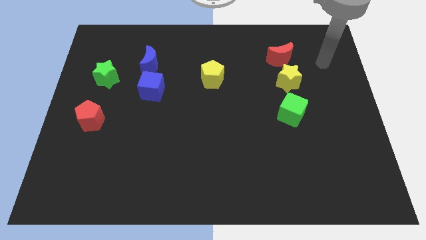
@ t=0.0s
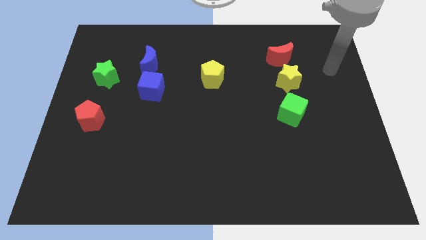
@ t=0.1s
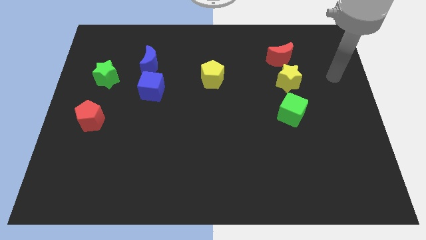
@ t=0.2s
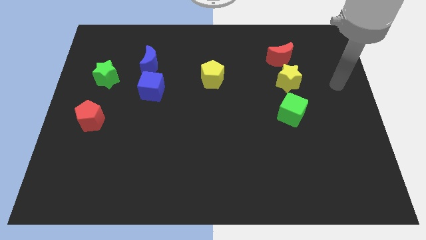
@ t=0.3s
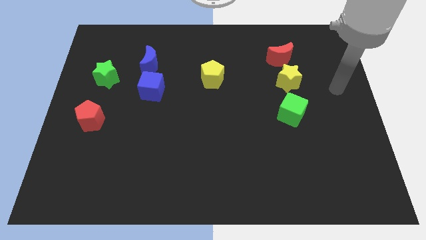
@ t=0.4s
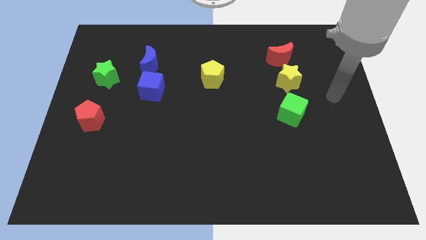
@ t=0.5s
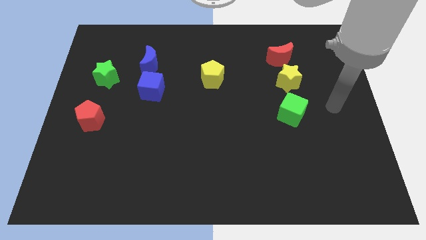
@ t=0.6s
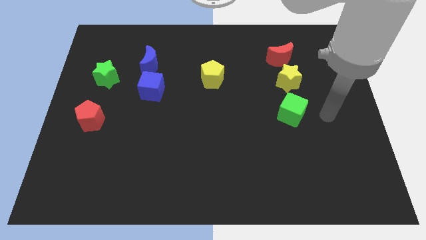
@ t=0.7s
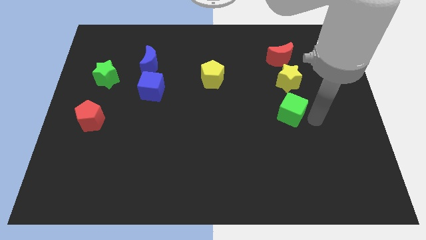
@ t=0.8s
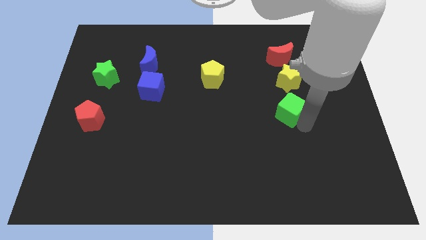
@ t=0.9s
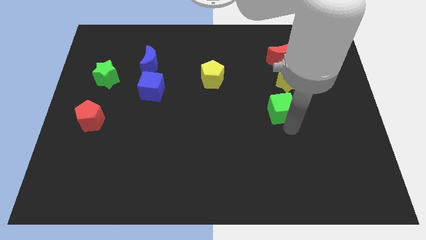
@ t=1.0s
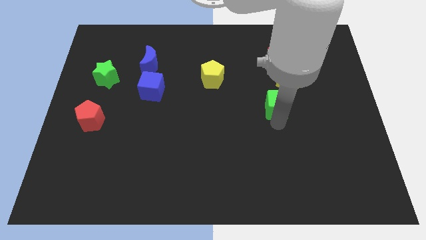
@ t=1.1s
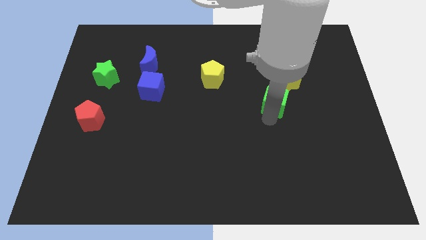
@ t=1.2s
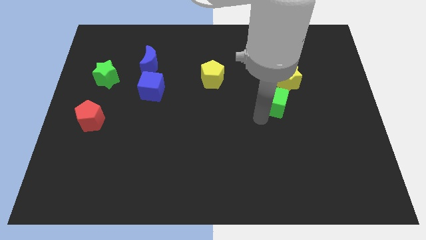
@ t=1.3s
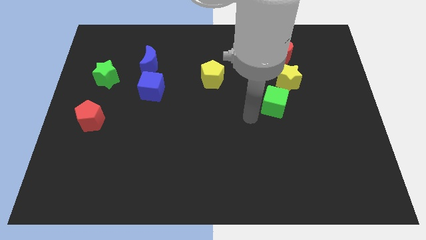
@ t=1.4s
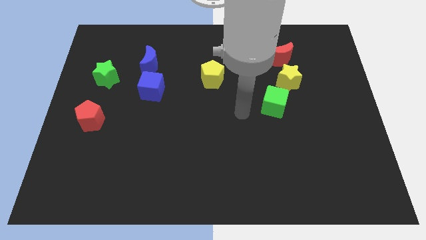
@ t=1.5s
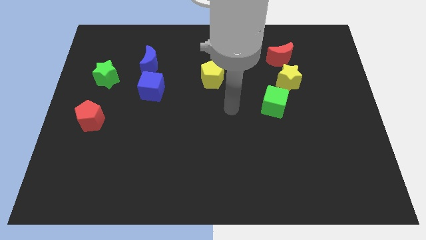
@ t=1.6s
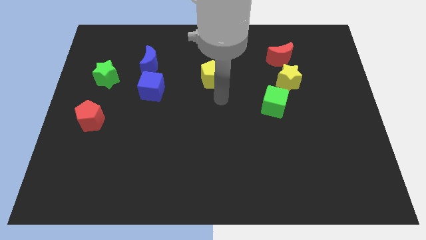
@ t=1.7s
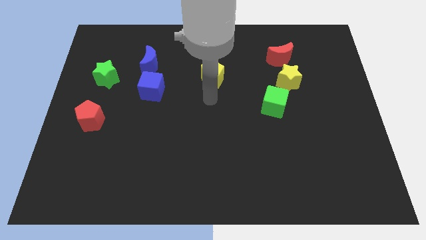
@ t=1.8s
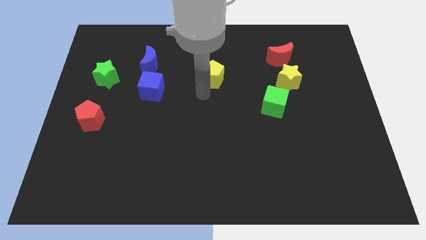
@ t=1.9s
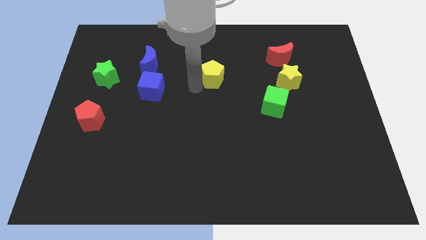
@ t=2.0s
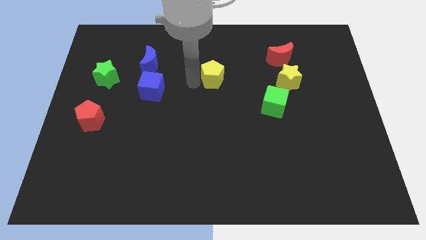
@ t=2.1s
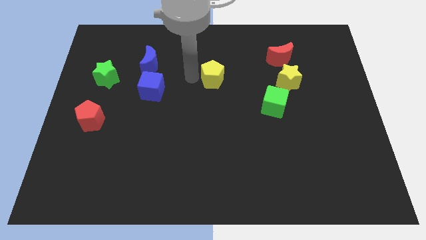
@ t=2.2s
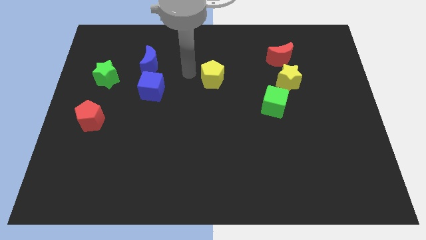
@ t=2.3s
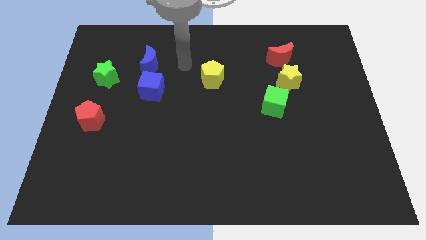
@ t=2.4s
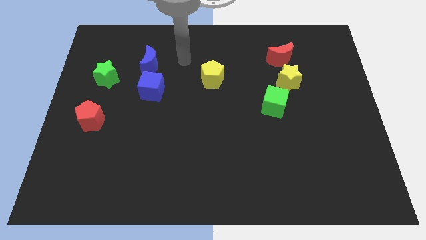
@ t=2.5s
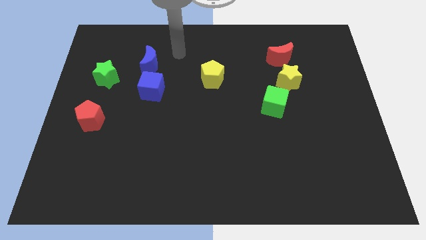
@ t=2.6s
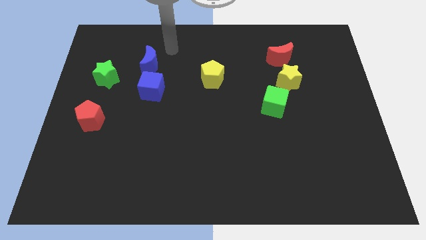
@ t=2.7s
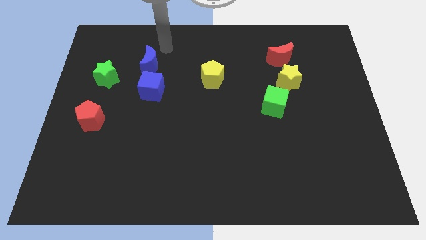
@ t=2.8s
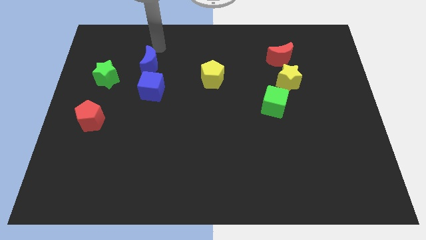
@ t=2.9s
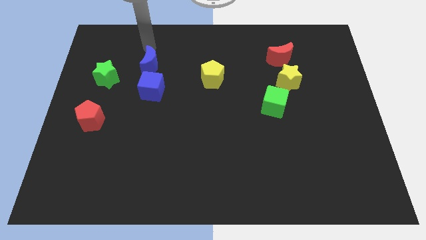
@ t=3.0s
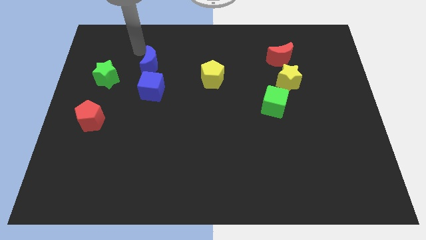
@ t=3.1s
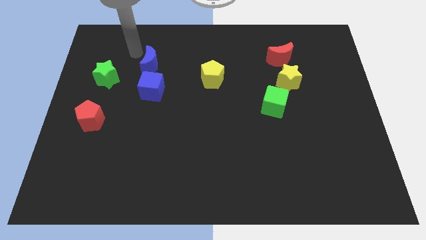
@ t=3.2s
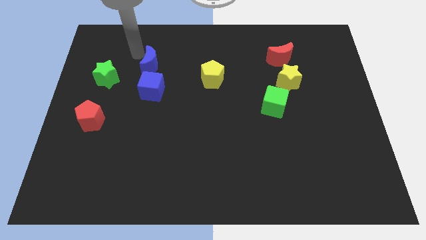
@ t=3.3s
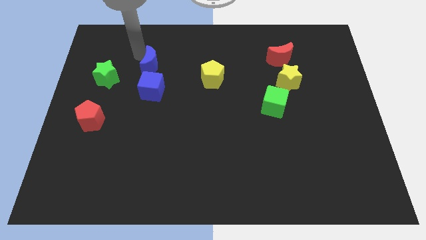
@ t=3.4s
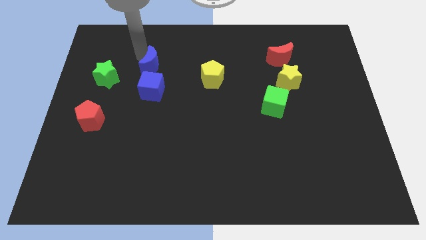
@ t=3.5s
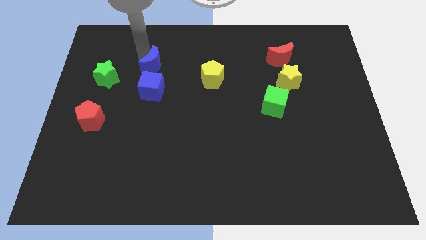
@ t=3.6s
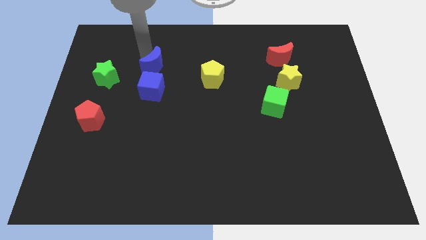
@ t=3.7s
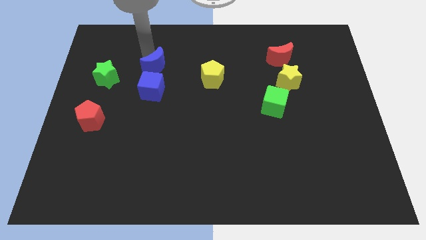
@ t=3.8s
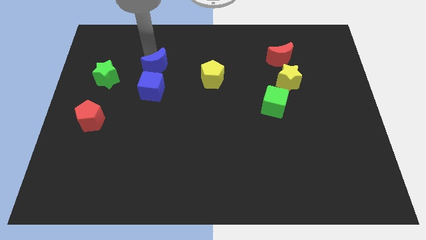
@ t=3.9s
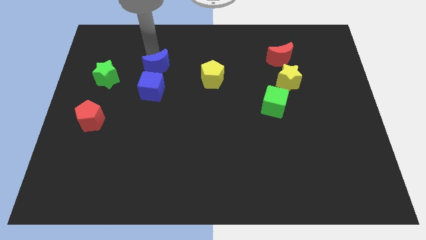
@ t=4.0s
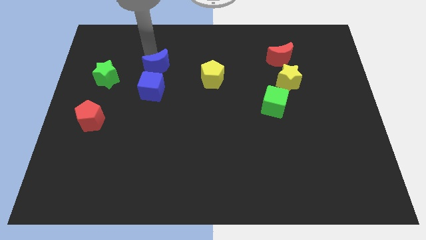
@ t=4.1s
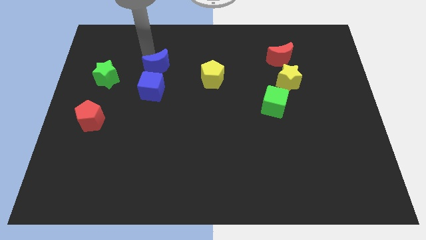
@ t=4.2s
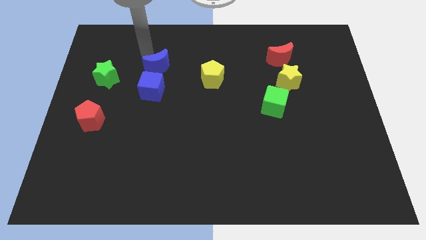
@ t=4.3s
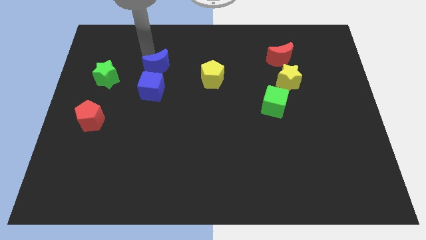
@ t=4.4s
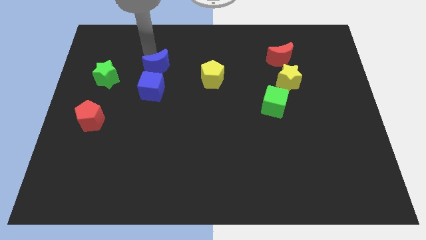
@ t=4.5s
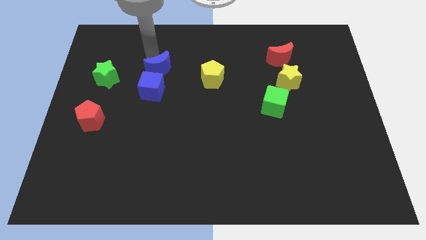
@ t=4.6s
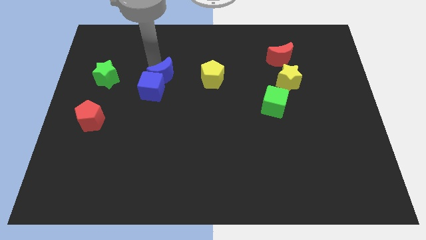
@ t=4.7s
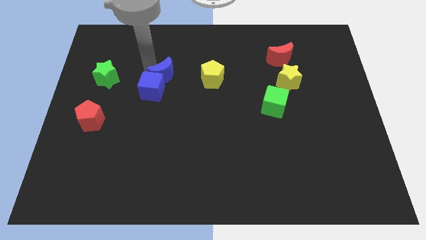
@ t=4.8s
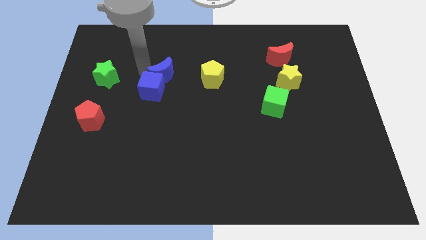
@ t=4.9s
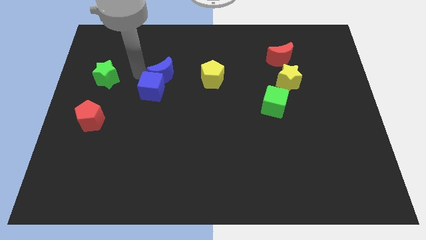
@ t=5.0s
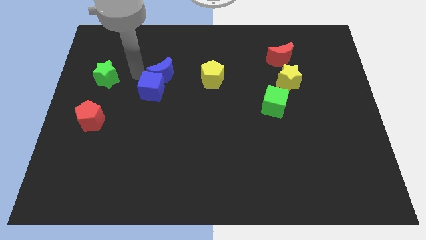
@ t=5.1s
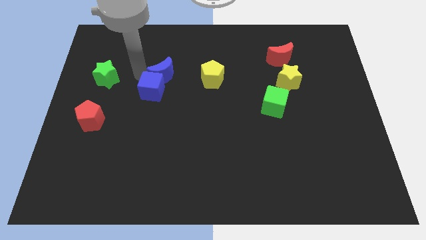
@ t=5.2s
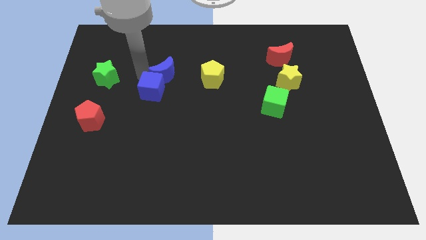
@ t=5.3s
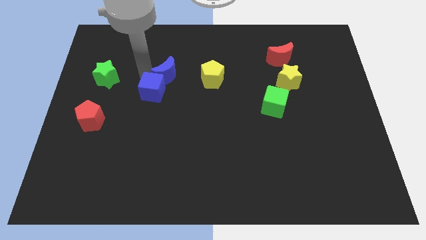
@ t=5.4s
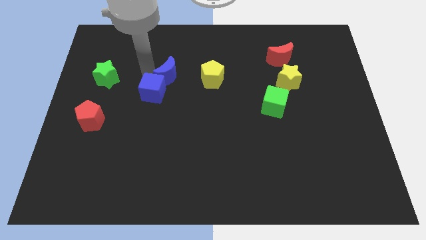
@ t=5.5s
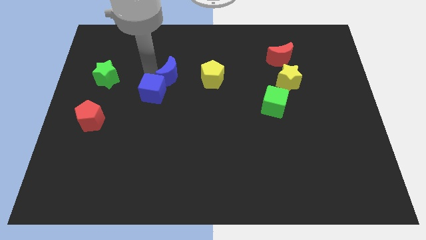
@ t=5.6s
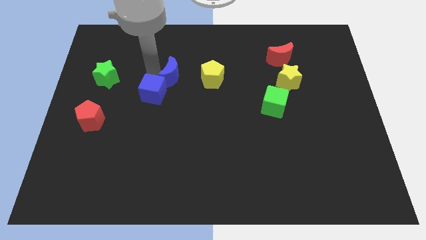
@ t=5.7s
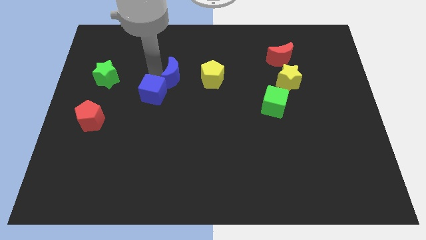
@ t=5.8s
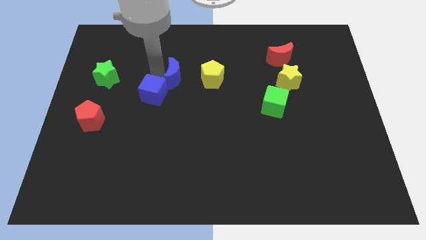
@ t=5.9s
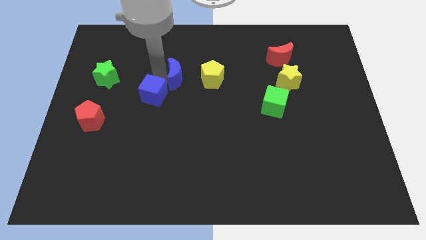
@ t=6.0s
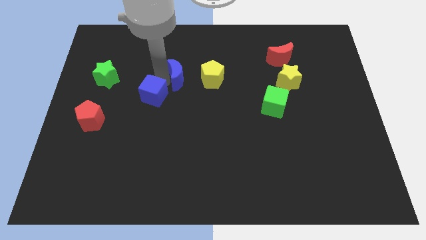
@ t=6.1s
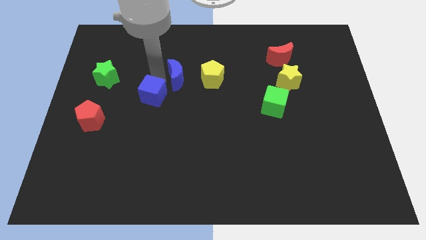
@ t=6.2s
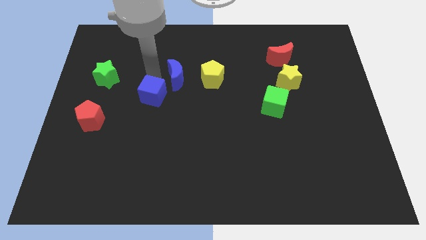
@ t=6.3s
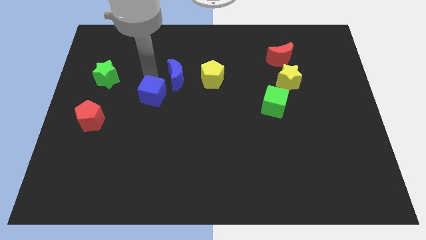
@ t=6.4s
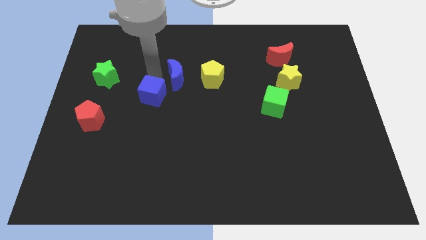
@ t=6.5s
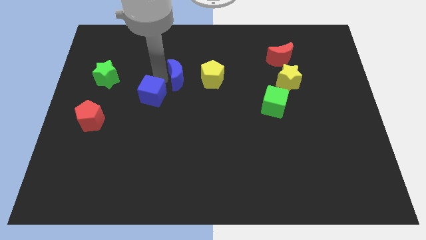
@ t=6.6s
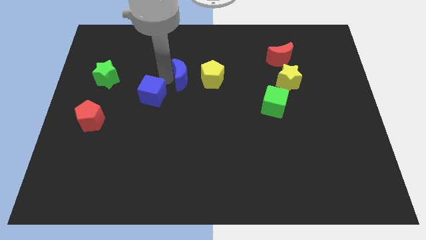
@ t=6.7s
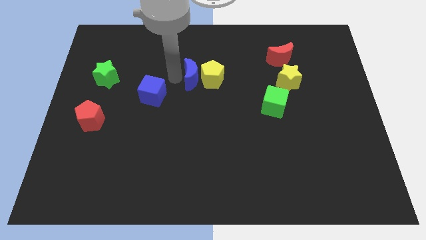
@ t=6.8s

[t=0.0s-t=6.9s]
slide the blue moon close to the yellow pentagon
